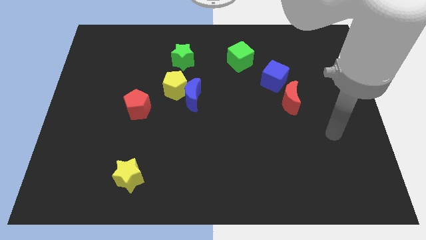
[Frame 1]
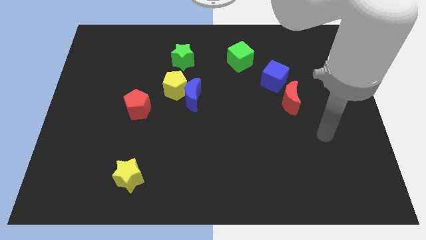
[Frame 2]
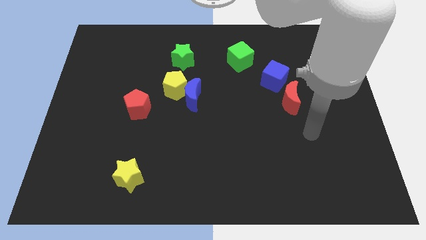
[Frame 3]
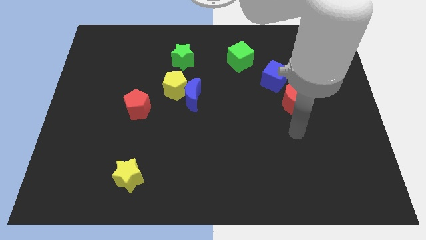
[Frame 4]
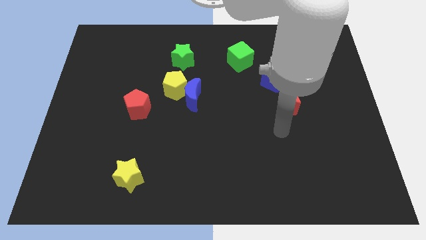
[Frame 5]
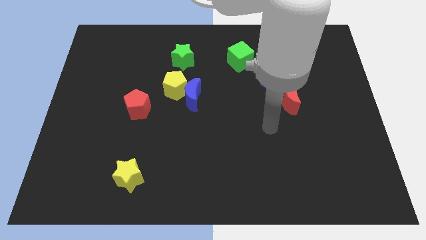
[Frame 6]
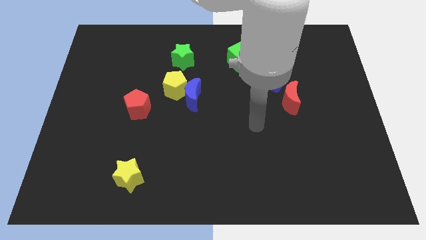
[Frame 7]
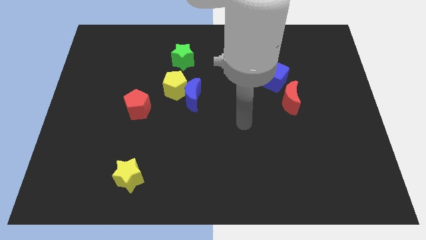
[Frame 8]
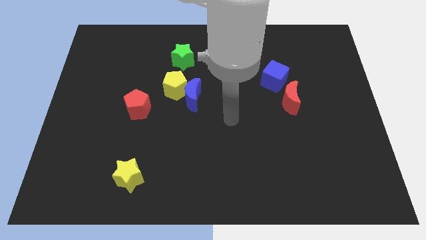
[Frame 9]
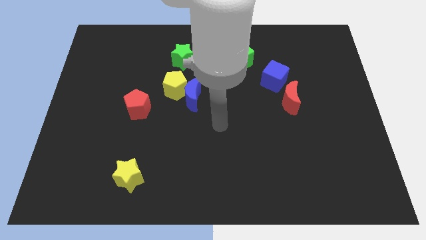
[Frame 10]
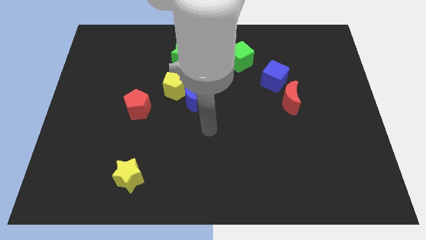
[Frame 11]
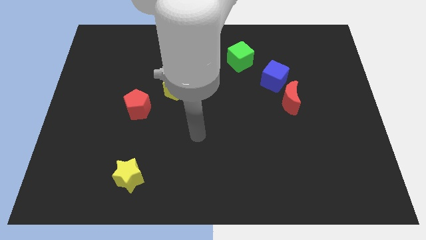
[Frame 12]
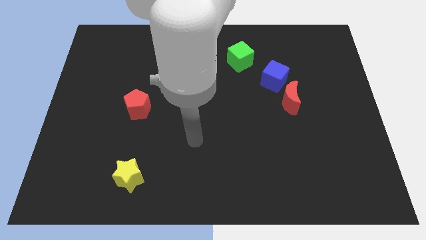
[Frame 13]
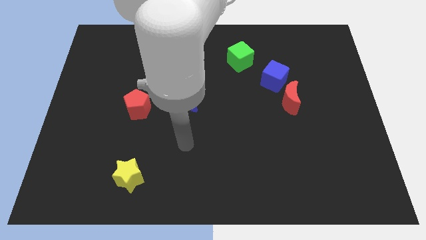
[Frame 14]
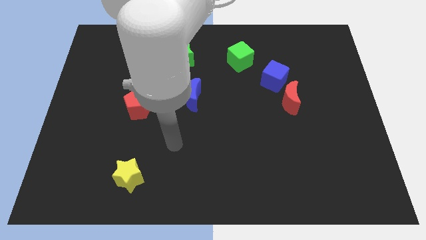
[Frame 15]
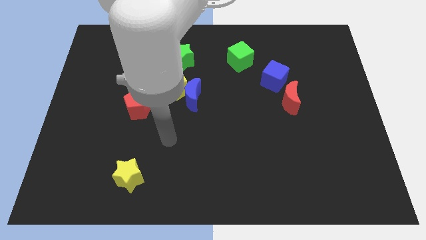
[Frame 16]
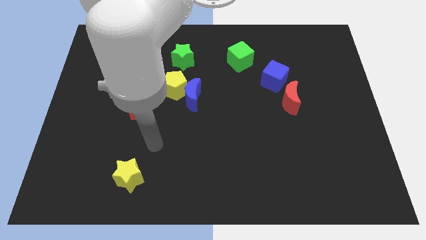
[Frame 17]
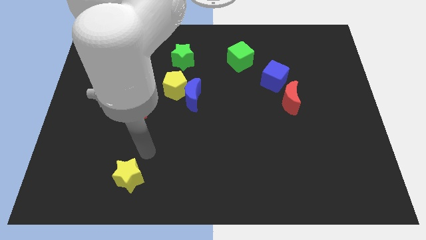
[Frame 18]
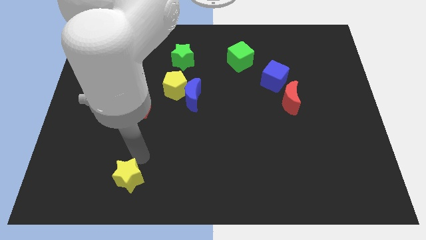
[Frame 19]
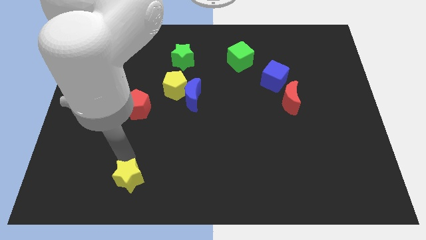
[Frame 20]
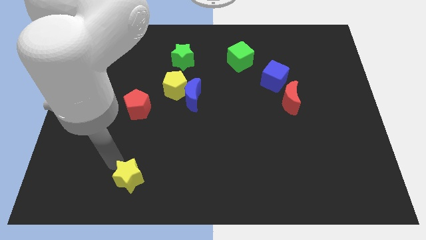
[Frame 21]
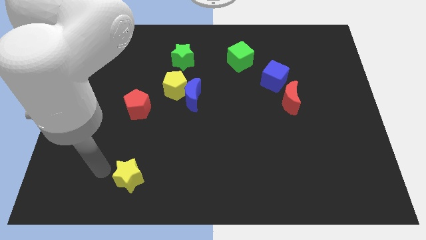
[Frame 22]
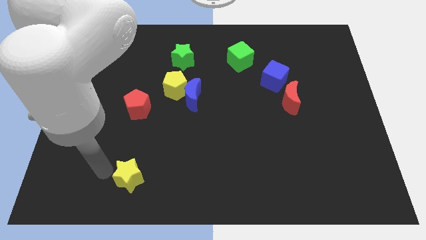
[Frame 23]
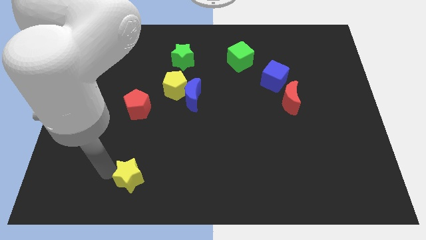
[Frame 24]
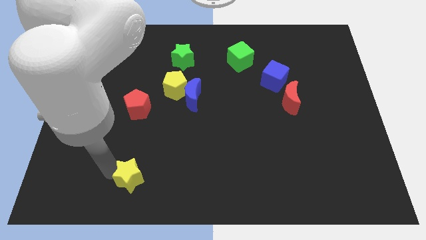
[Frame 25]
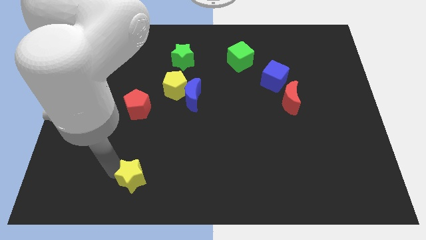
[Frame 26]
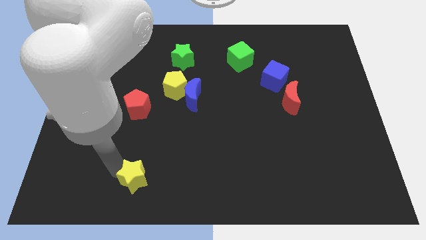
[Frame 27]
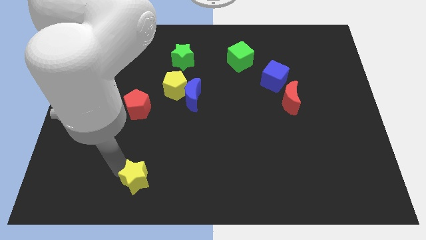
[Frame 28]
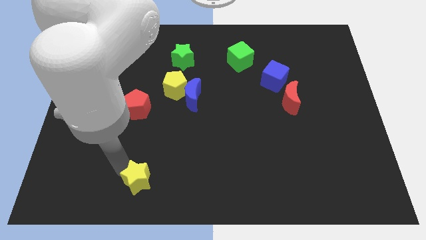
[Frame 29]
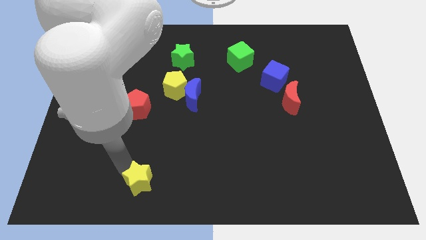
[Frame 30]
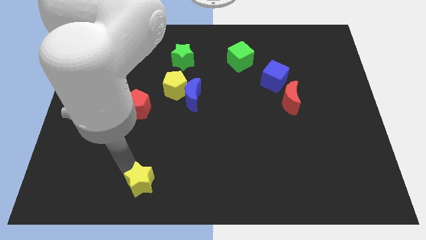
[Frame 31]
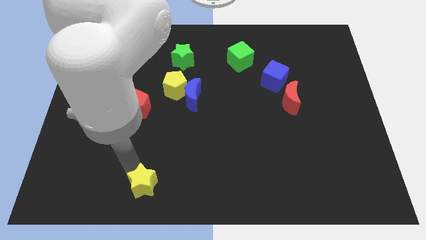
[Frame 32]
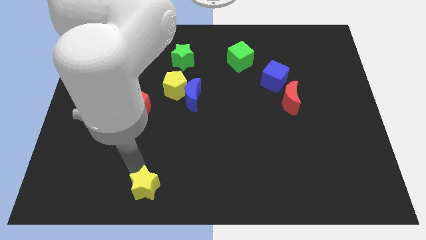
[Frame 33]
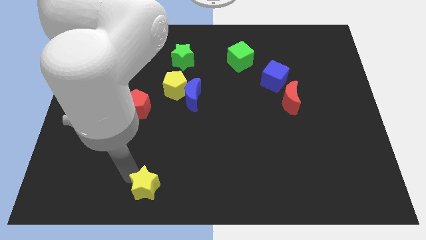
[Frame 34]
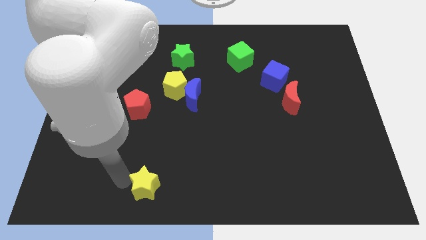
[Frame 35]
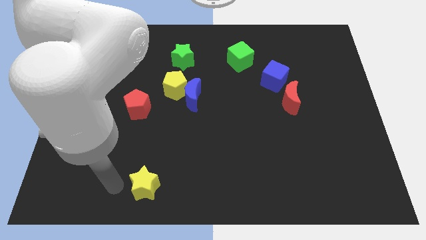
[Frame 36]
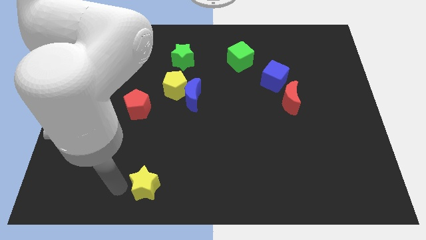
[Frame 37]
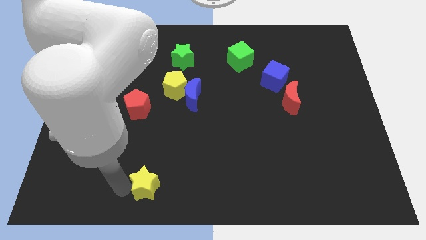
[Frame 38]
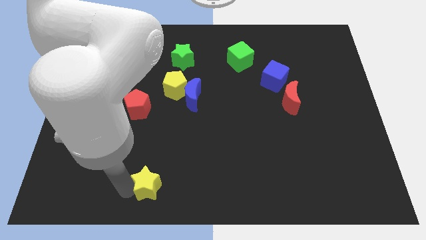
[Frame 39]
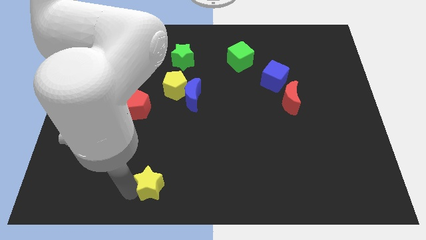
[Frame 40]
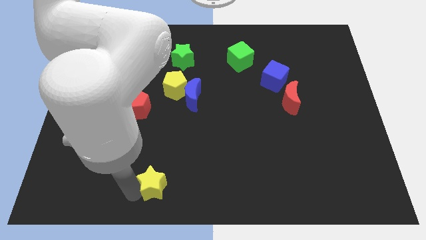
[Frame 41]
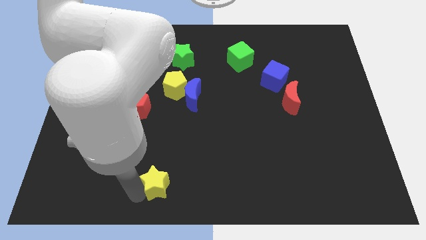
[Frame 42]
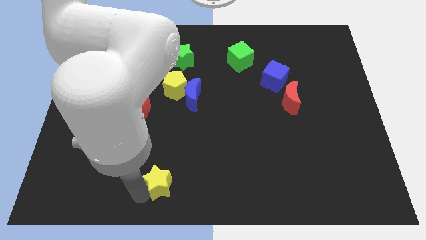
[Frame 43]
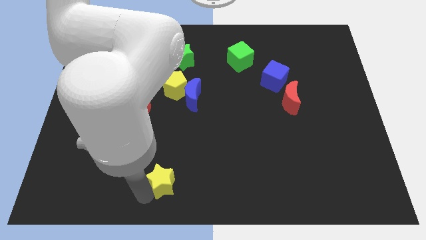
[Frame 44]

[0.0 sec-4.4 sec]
slide the yellow star right slightly

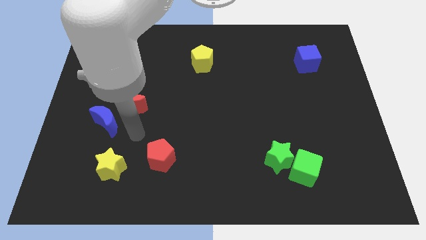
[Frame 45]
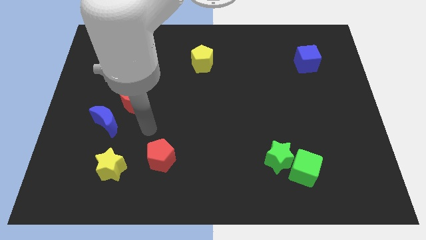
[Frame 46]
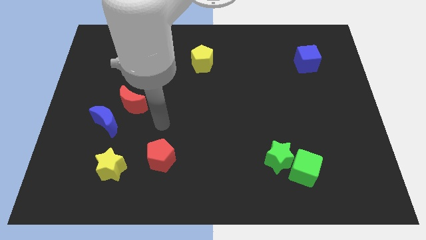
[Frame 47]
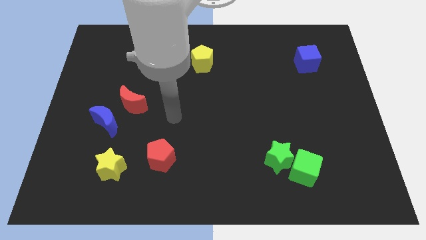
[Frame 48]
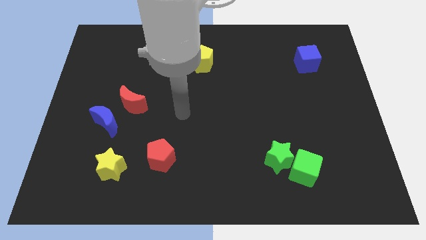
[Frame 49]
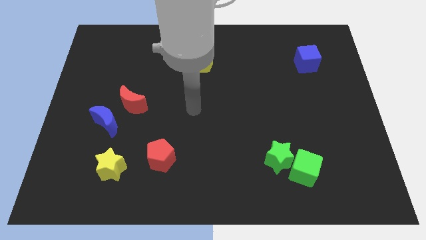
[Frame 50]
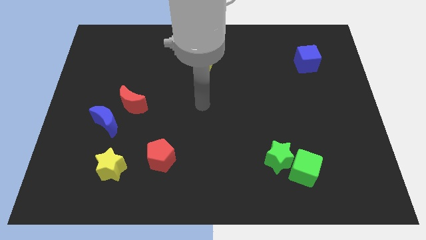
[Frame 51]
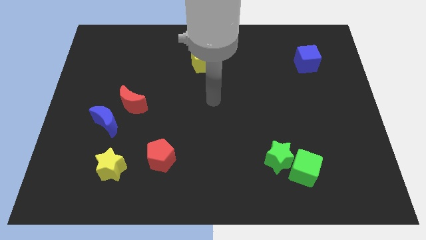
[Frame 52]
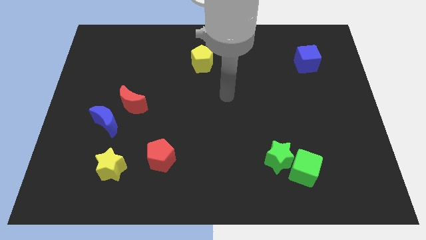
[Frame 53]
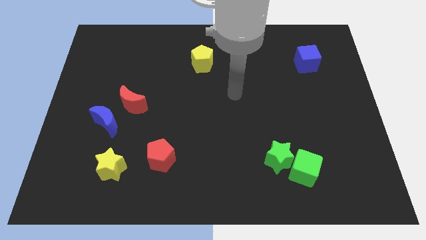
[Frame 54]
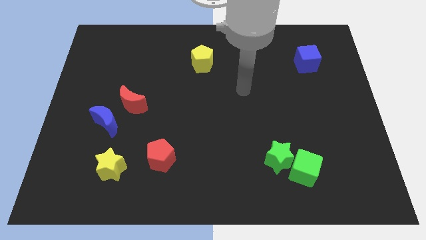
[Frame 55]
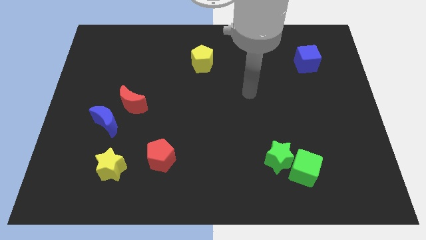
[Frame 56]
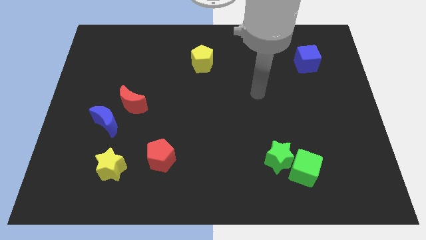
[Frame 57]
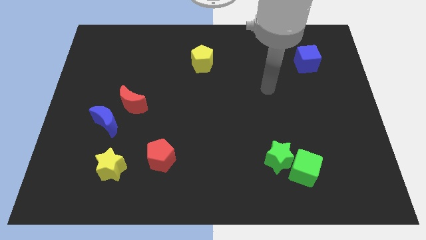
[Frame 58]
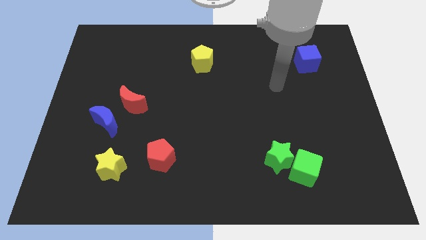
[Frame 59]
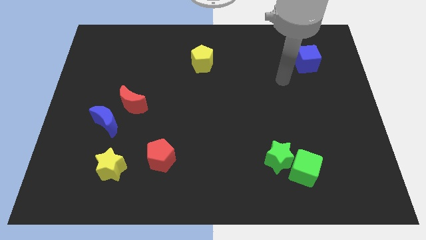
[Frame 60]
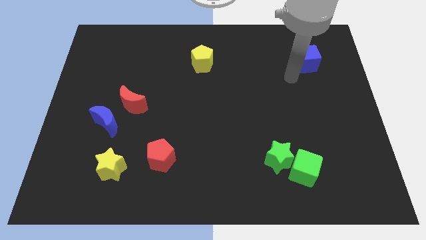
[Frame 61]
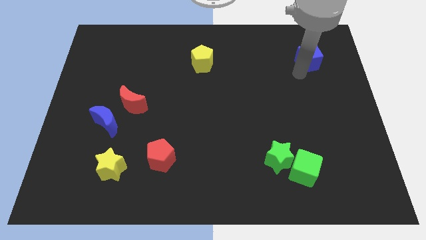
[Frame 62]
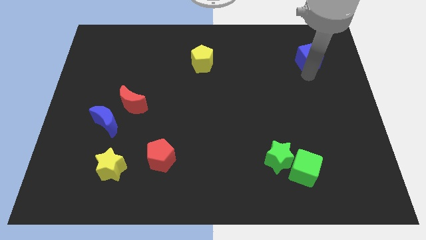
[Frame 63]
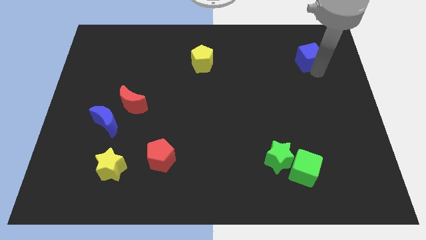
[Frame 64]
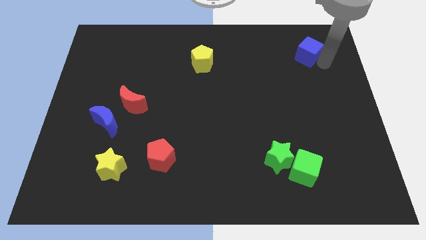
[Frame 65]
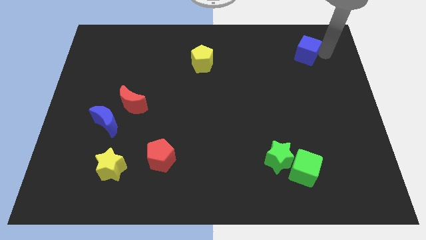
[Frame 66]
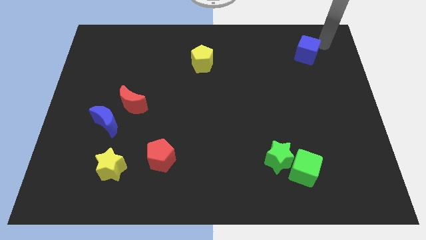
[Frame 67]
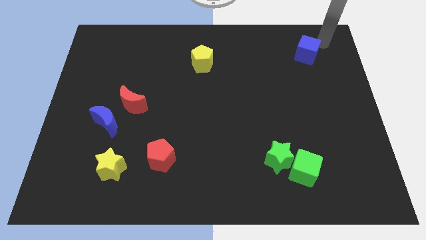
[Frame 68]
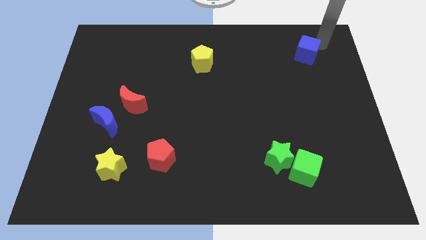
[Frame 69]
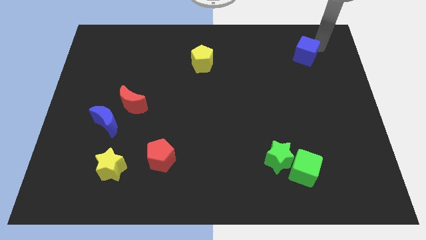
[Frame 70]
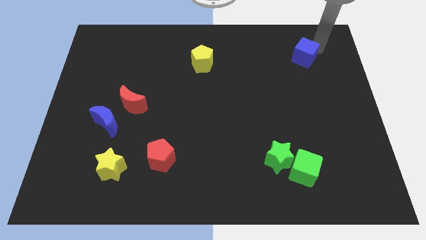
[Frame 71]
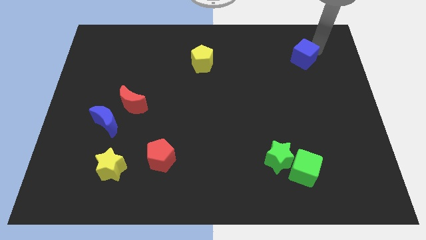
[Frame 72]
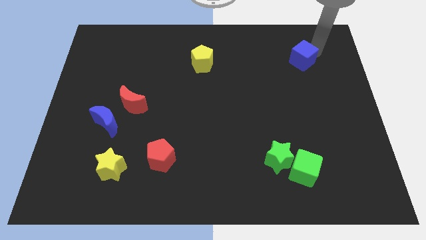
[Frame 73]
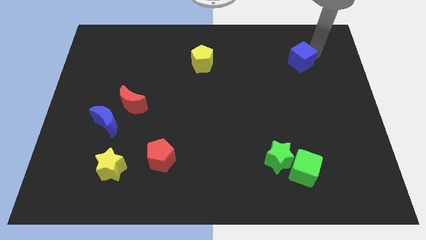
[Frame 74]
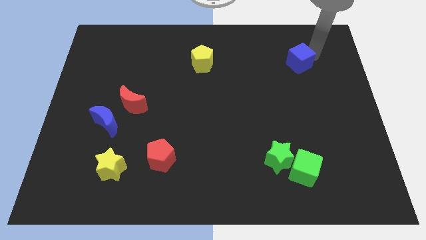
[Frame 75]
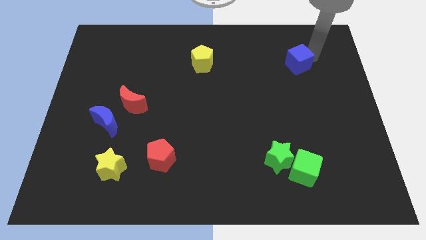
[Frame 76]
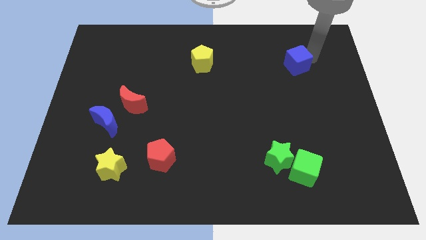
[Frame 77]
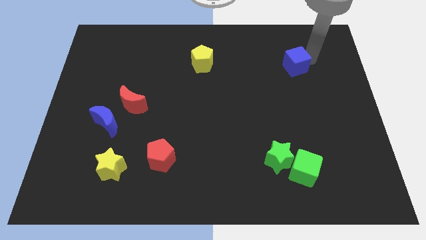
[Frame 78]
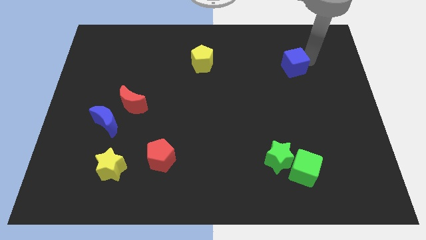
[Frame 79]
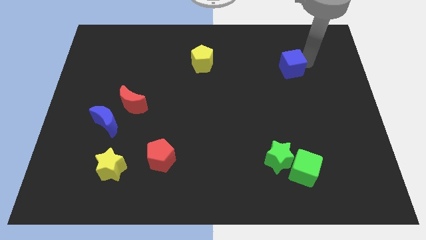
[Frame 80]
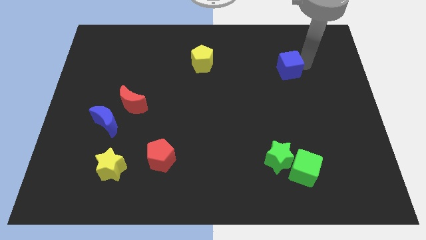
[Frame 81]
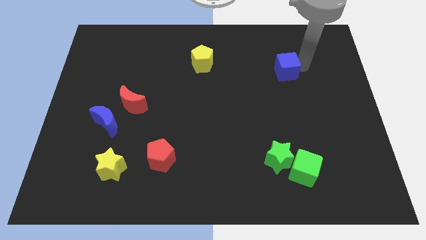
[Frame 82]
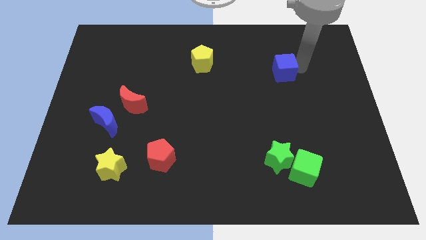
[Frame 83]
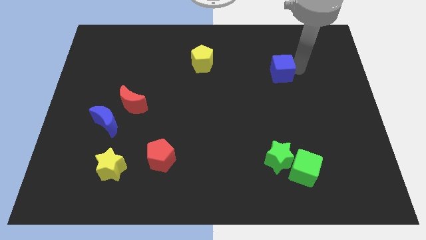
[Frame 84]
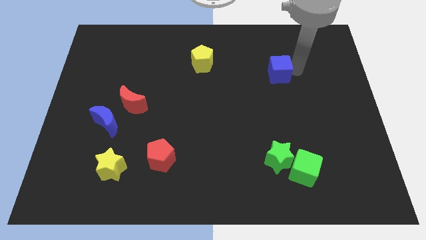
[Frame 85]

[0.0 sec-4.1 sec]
slide the blue cube a little left
